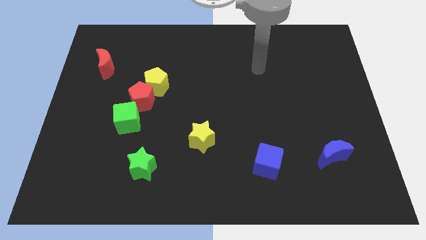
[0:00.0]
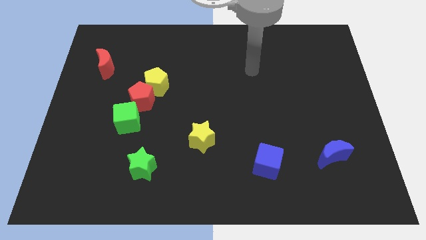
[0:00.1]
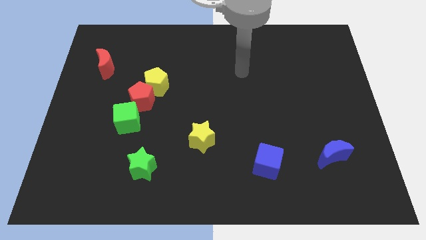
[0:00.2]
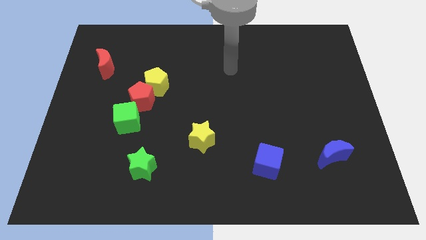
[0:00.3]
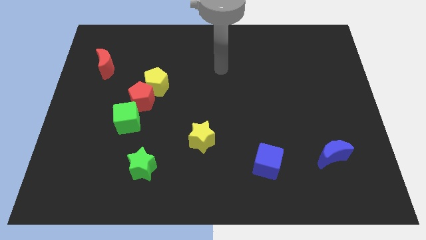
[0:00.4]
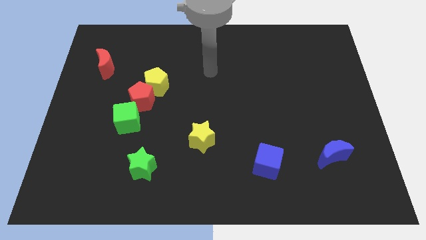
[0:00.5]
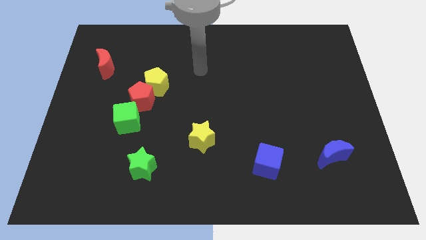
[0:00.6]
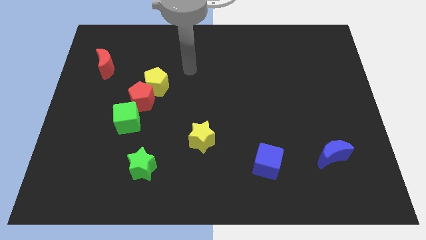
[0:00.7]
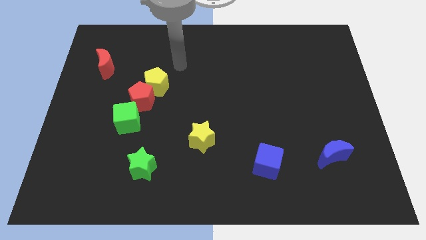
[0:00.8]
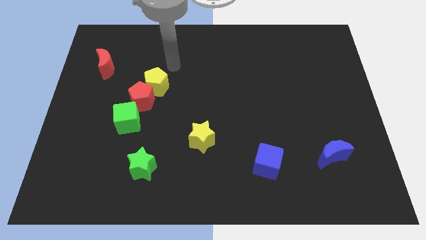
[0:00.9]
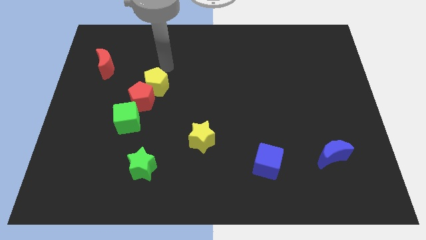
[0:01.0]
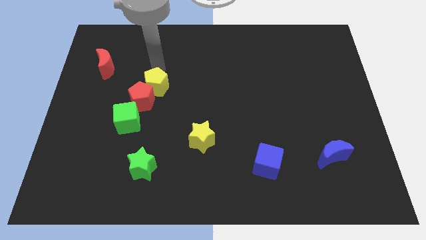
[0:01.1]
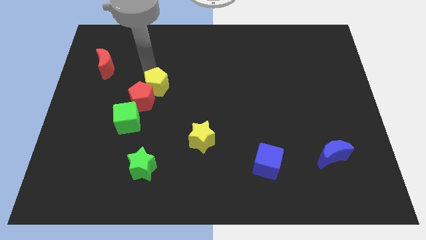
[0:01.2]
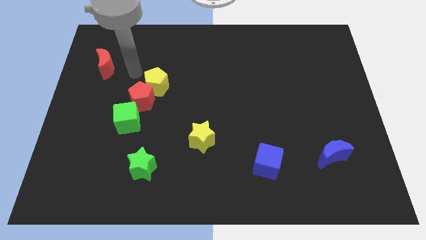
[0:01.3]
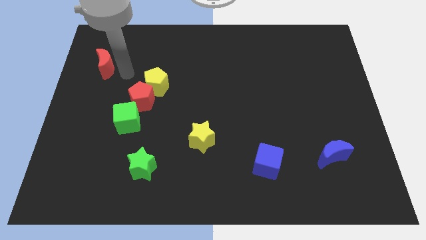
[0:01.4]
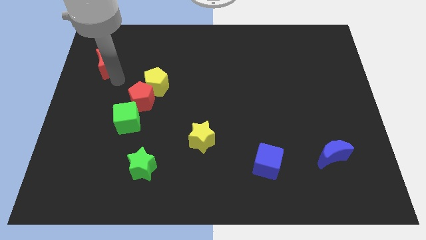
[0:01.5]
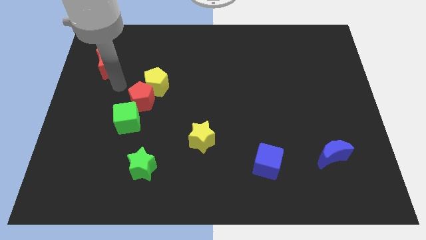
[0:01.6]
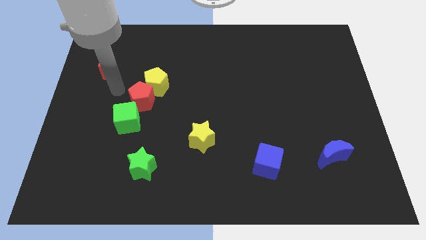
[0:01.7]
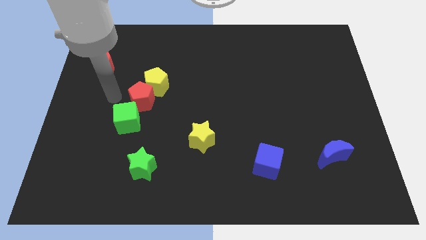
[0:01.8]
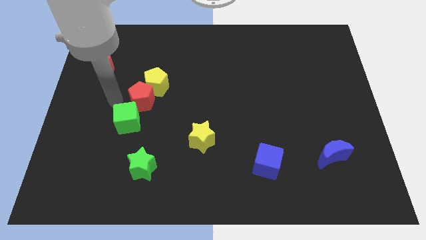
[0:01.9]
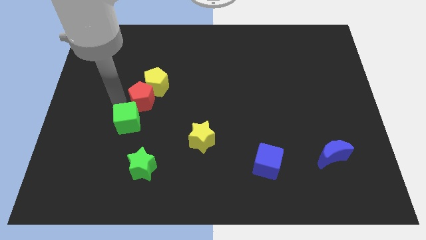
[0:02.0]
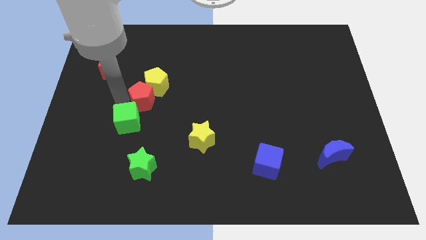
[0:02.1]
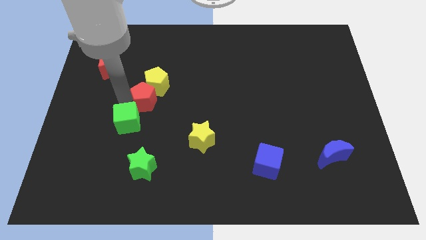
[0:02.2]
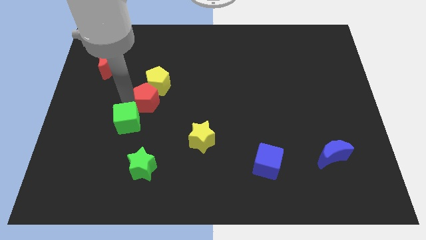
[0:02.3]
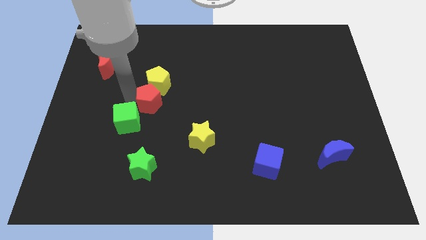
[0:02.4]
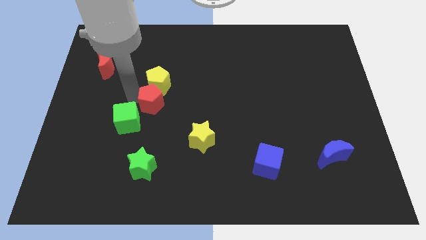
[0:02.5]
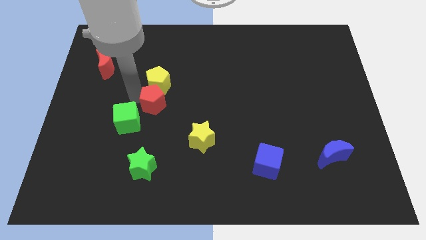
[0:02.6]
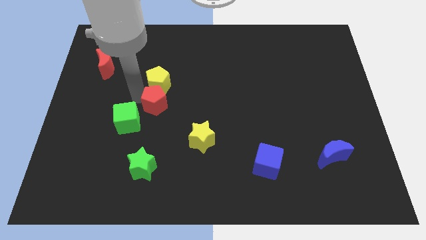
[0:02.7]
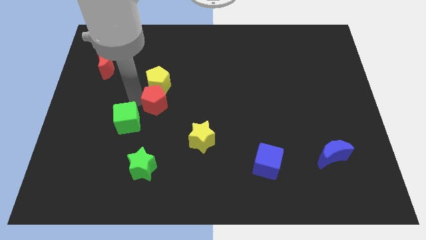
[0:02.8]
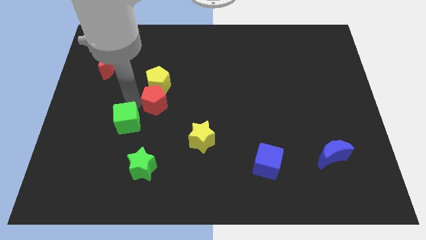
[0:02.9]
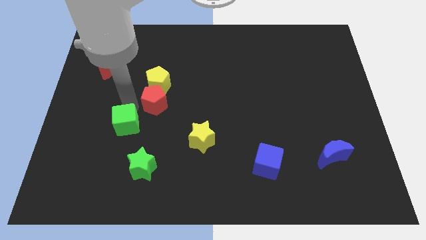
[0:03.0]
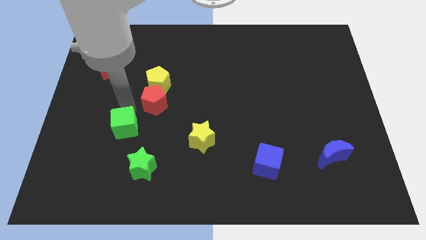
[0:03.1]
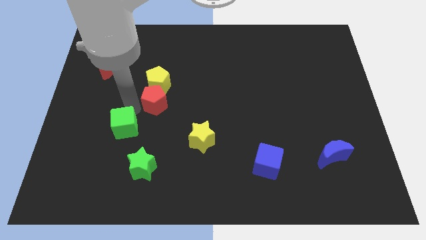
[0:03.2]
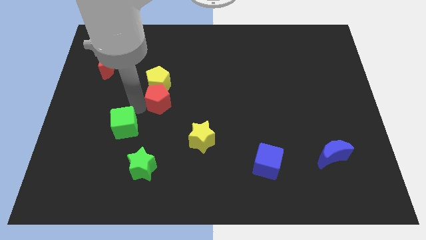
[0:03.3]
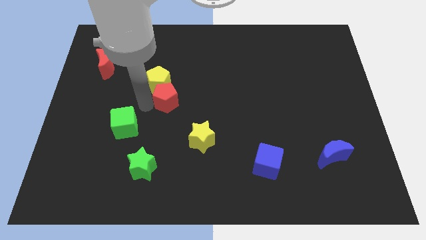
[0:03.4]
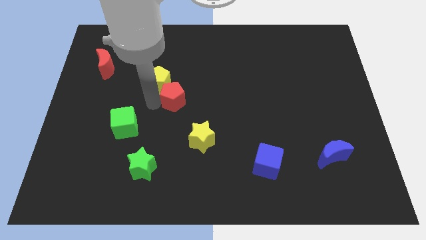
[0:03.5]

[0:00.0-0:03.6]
slide the red pentagon to the right a little bit

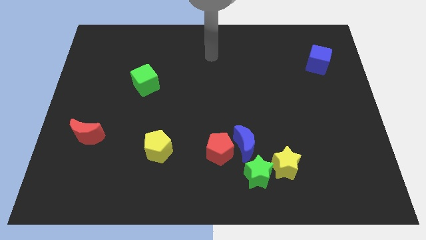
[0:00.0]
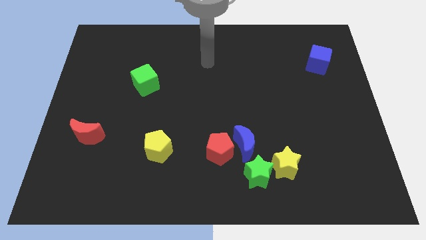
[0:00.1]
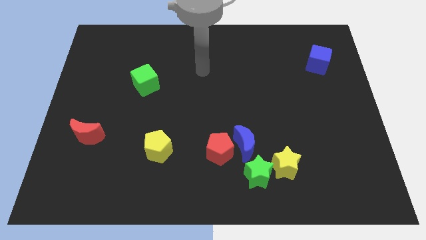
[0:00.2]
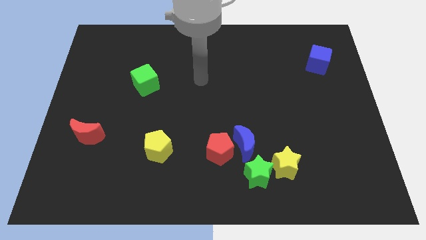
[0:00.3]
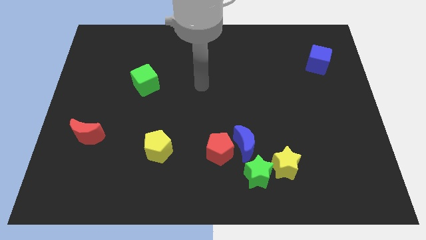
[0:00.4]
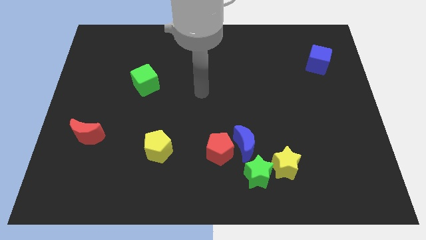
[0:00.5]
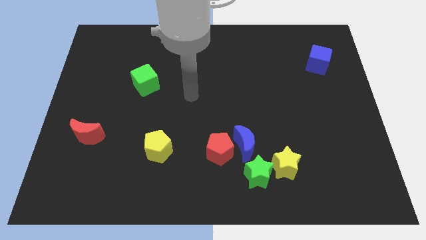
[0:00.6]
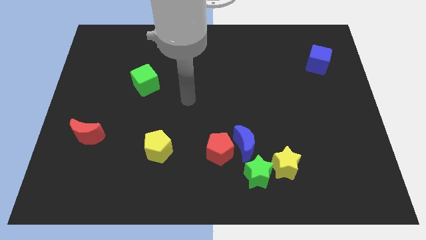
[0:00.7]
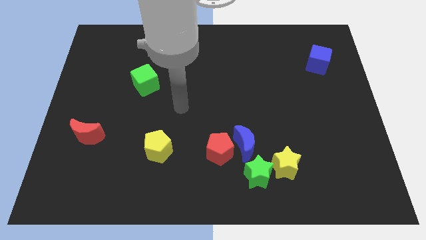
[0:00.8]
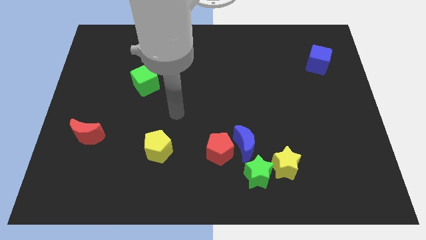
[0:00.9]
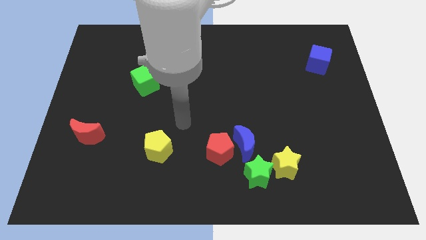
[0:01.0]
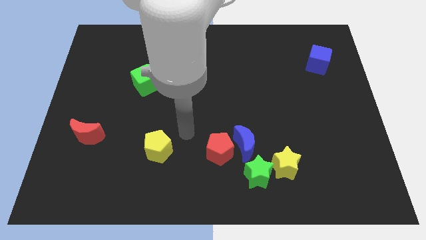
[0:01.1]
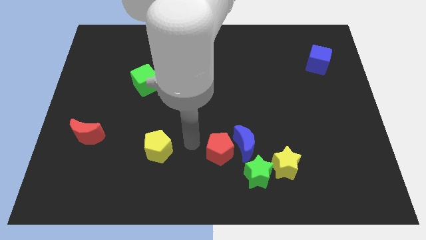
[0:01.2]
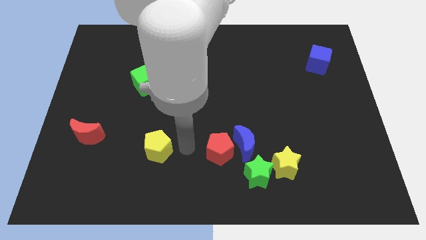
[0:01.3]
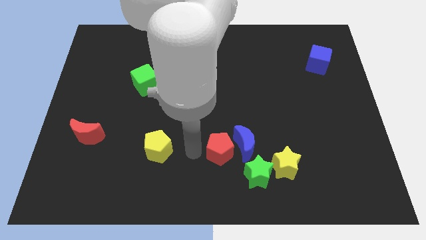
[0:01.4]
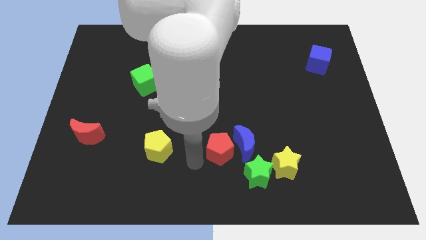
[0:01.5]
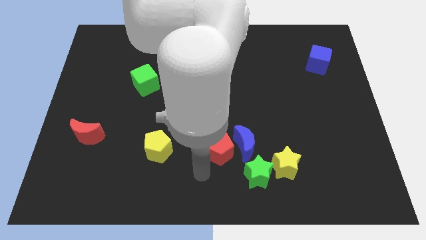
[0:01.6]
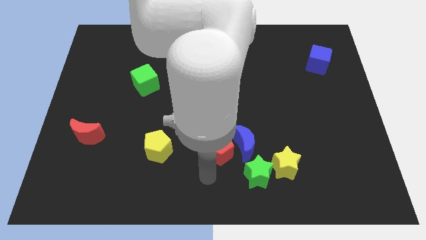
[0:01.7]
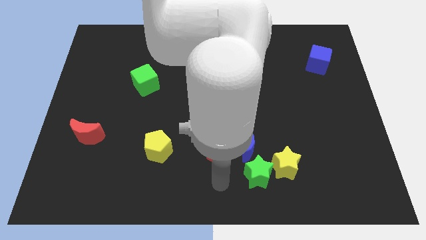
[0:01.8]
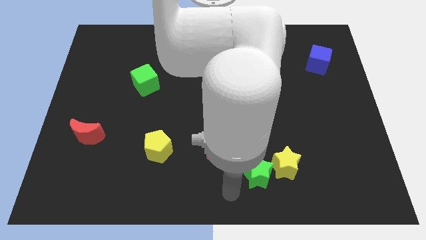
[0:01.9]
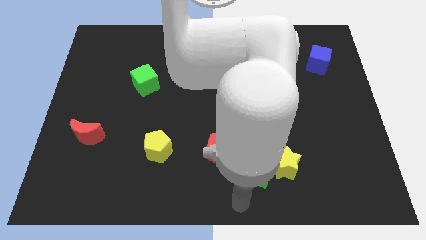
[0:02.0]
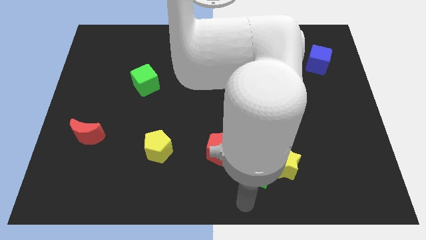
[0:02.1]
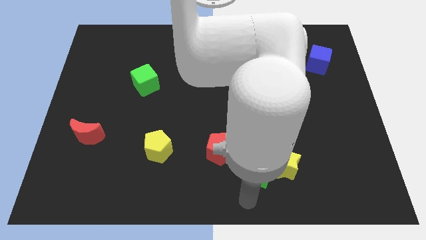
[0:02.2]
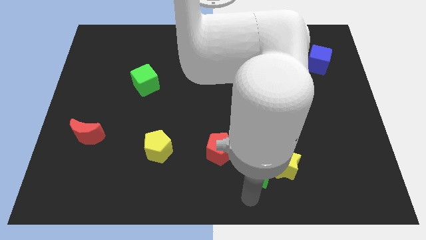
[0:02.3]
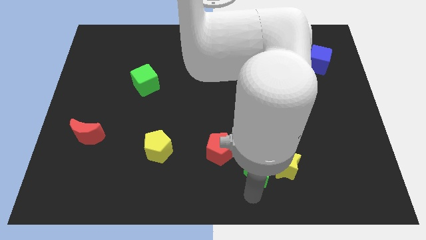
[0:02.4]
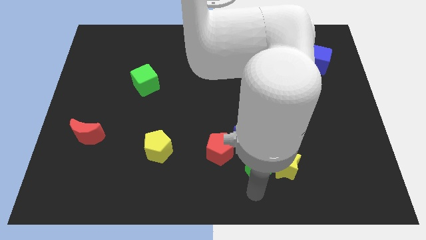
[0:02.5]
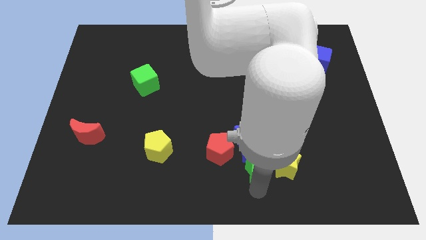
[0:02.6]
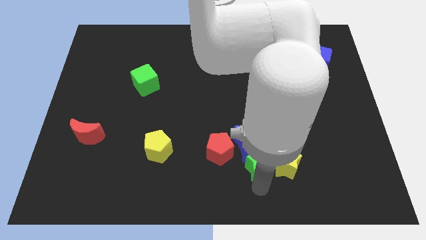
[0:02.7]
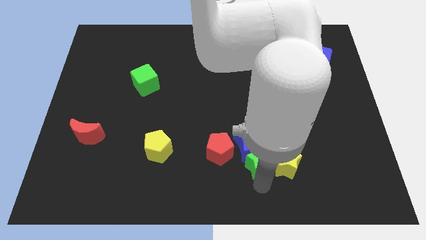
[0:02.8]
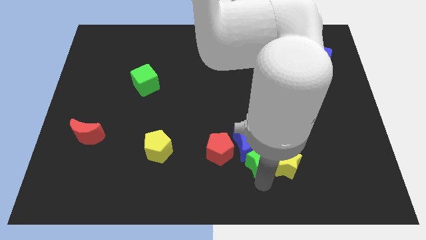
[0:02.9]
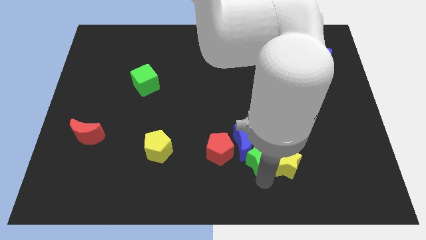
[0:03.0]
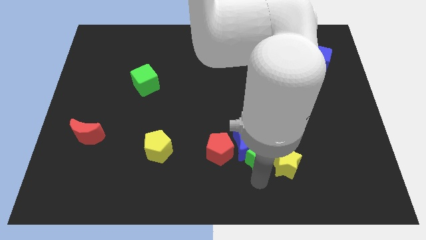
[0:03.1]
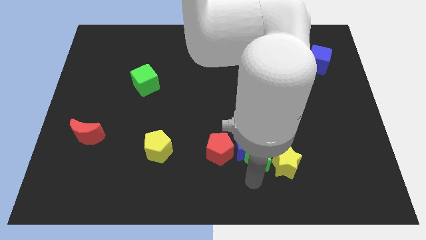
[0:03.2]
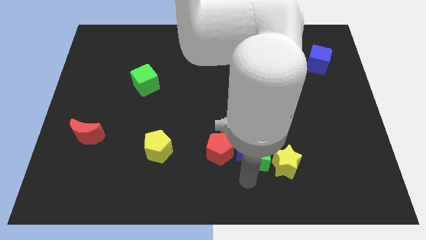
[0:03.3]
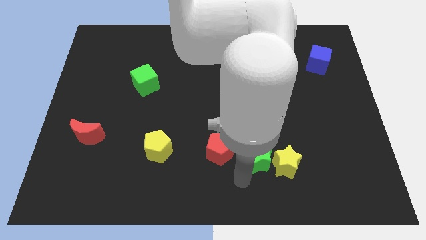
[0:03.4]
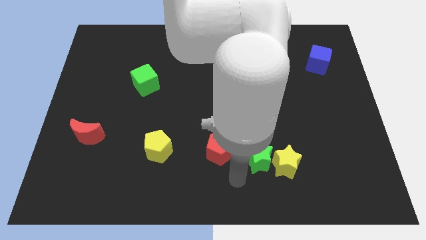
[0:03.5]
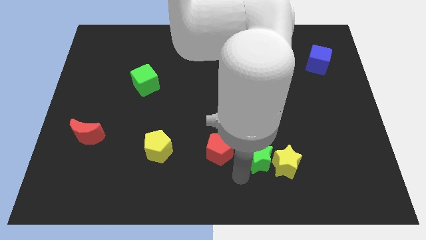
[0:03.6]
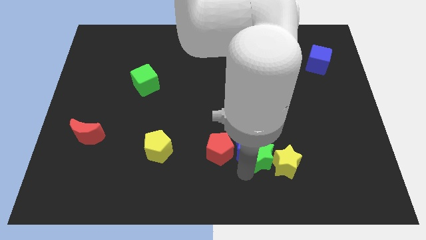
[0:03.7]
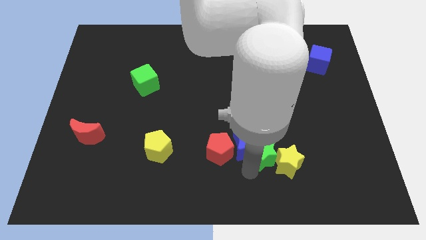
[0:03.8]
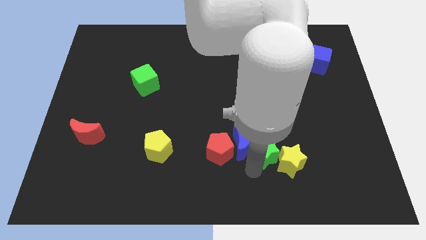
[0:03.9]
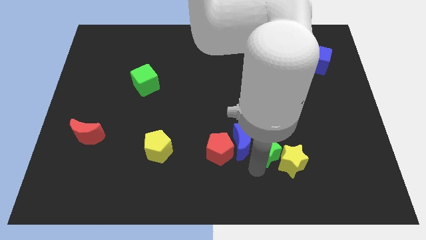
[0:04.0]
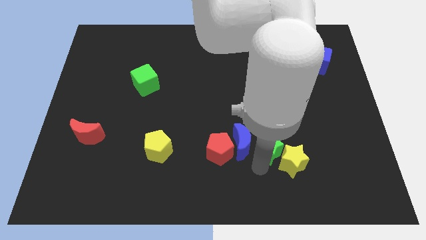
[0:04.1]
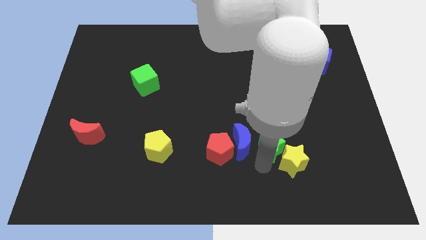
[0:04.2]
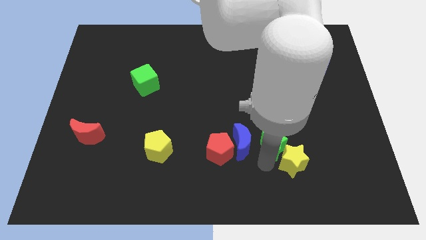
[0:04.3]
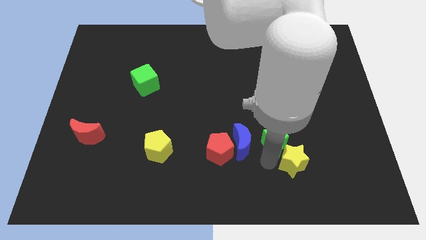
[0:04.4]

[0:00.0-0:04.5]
move the green star a little up
